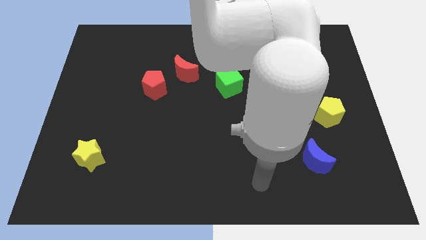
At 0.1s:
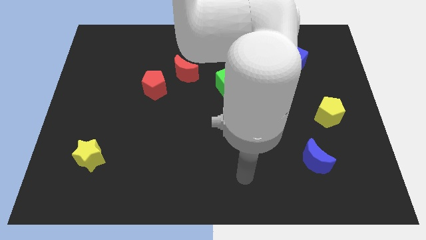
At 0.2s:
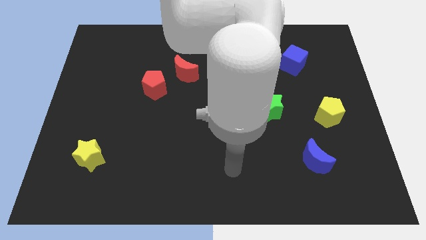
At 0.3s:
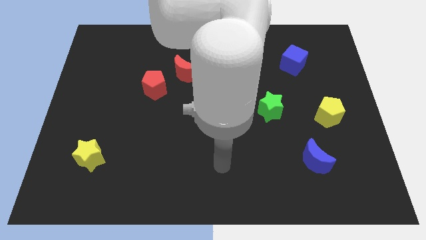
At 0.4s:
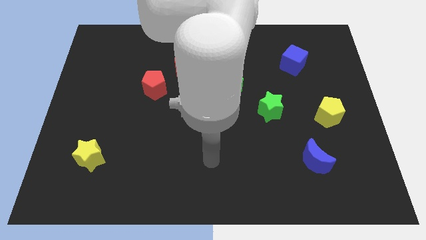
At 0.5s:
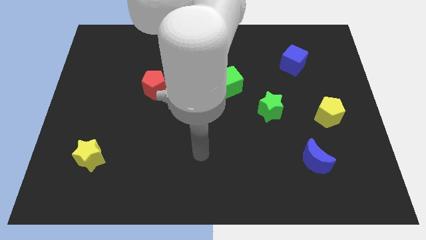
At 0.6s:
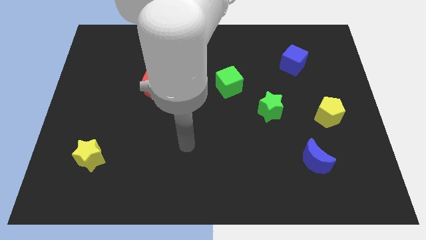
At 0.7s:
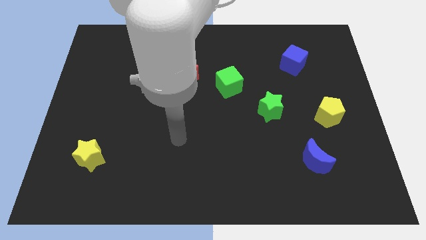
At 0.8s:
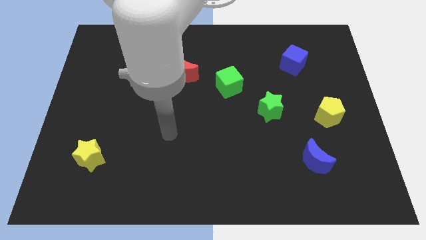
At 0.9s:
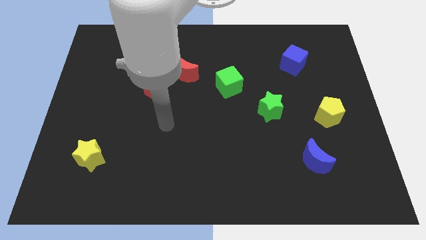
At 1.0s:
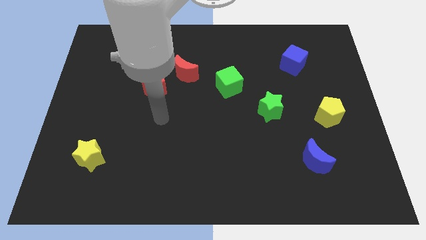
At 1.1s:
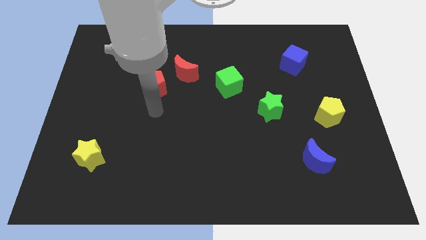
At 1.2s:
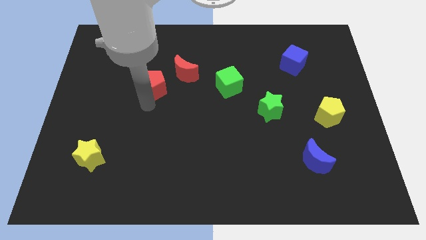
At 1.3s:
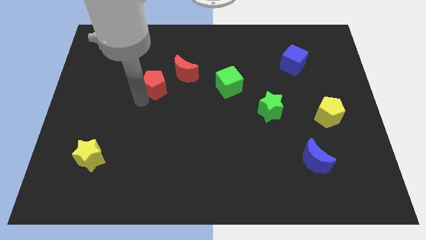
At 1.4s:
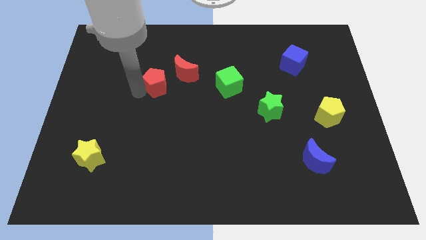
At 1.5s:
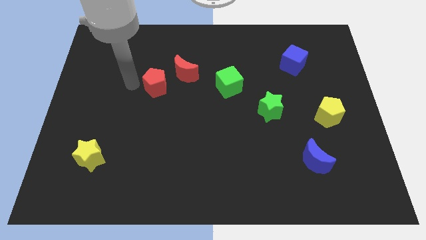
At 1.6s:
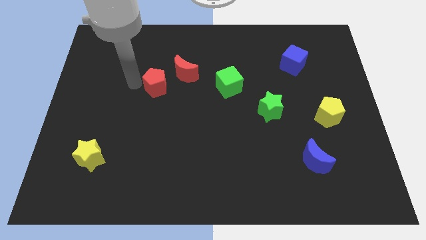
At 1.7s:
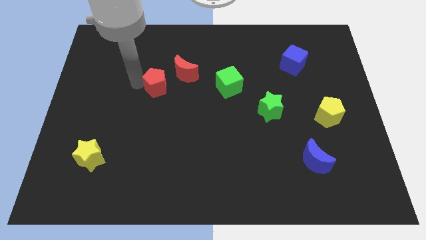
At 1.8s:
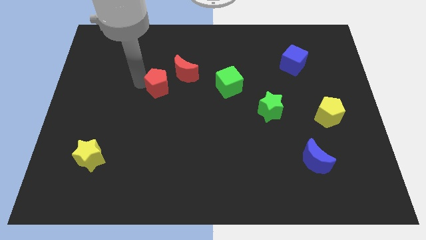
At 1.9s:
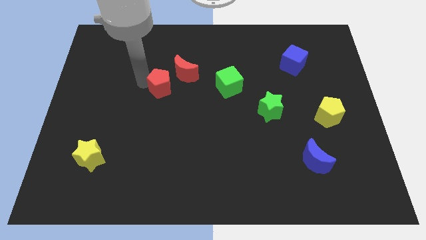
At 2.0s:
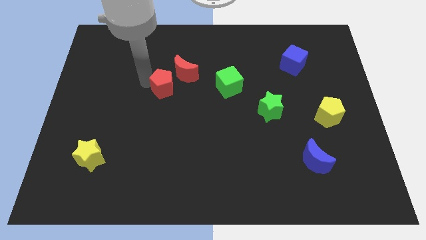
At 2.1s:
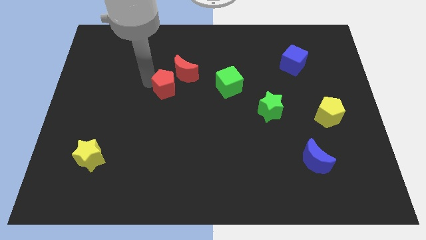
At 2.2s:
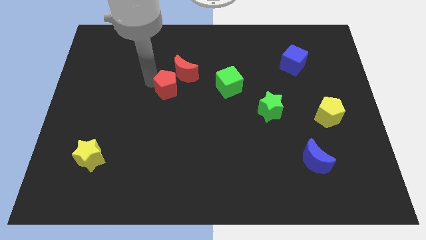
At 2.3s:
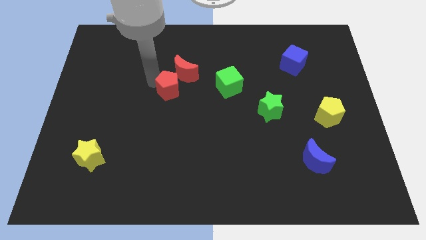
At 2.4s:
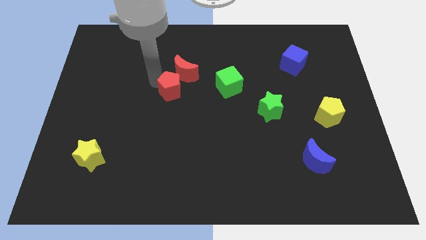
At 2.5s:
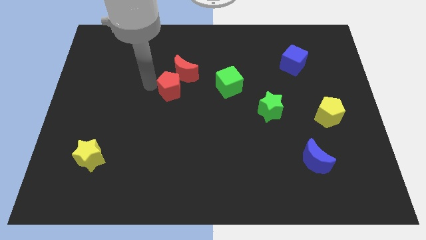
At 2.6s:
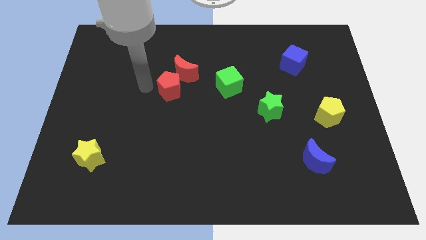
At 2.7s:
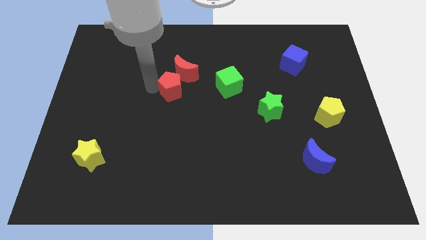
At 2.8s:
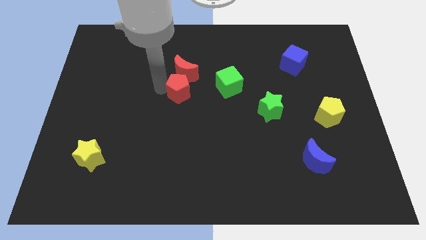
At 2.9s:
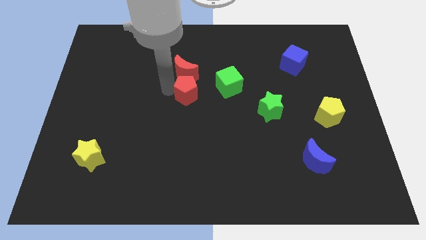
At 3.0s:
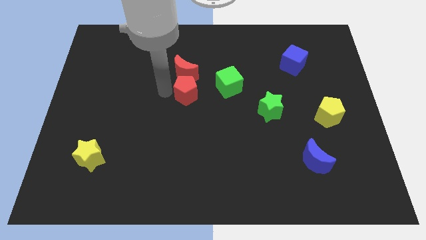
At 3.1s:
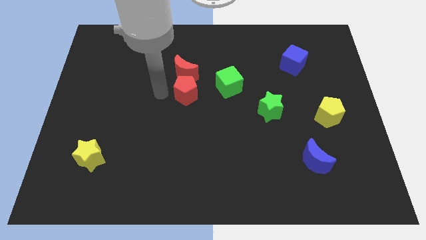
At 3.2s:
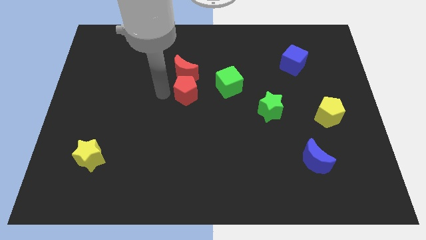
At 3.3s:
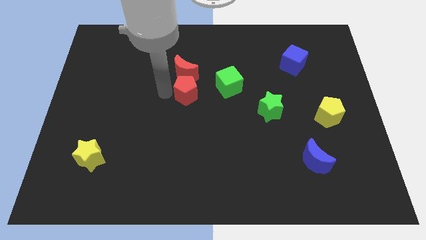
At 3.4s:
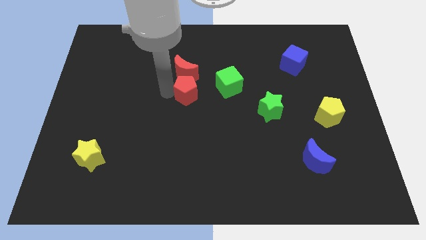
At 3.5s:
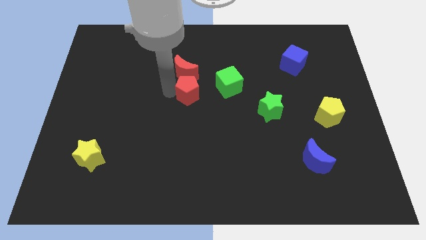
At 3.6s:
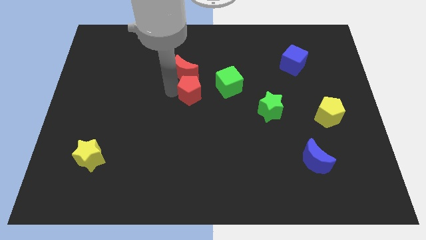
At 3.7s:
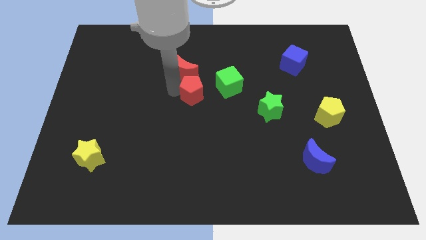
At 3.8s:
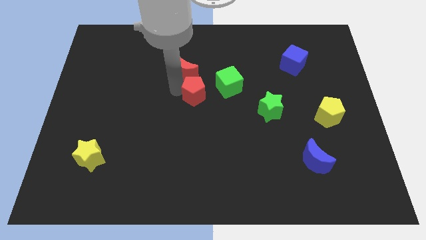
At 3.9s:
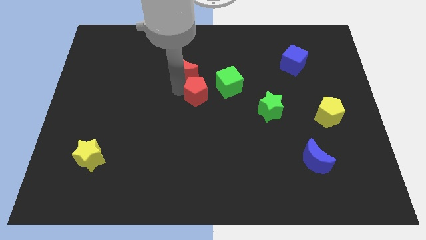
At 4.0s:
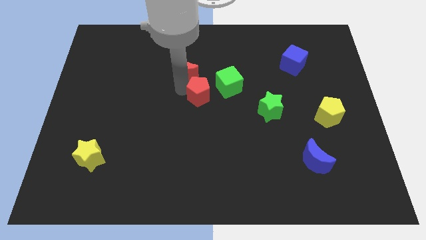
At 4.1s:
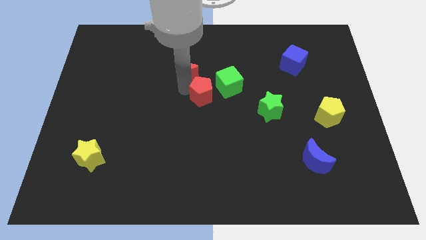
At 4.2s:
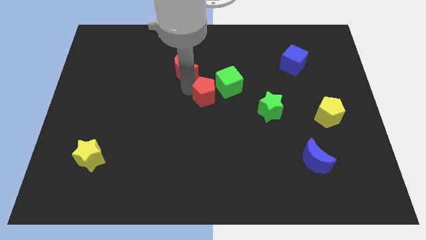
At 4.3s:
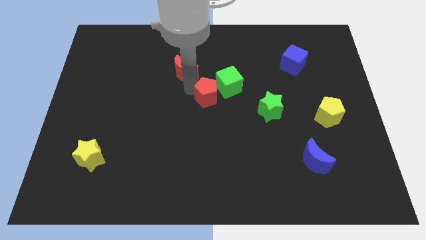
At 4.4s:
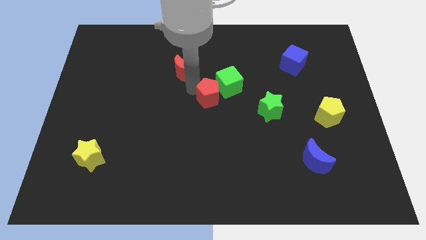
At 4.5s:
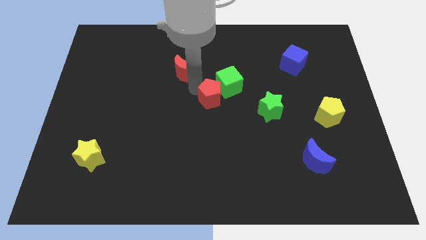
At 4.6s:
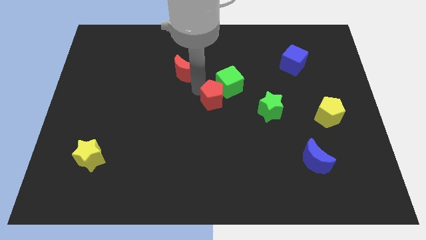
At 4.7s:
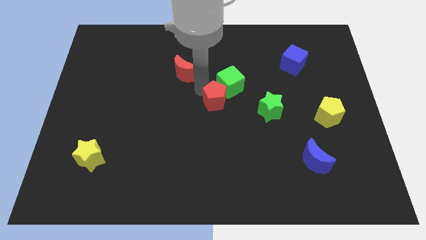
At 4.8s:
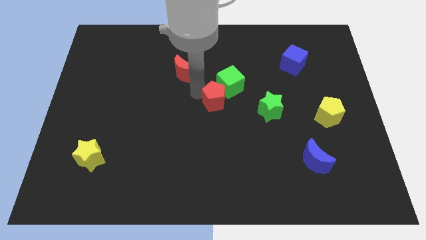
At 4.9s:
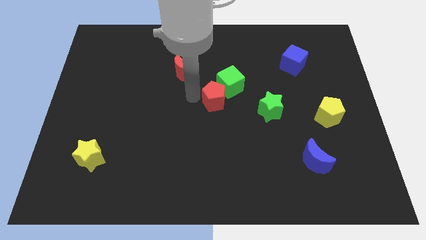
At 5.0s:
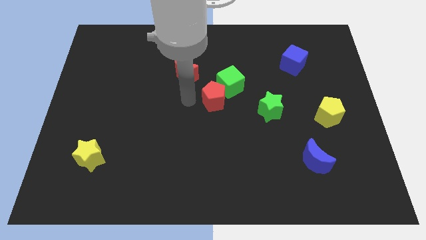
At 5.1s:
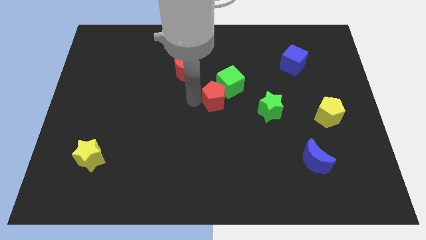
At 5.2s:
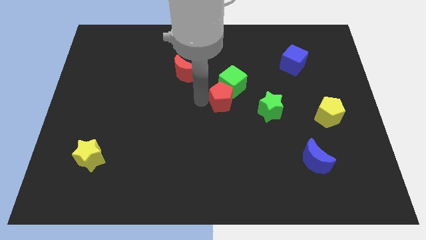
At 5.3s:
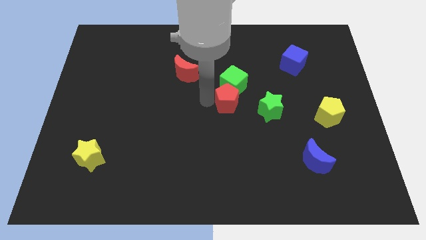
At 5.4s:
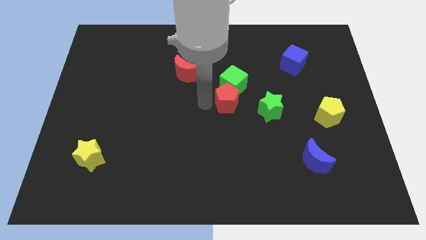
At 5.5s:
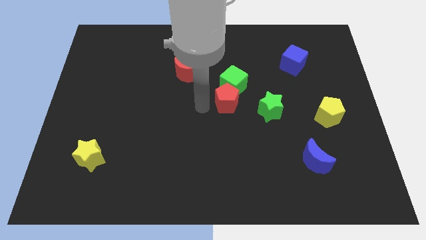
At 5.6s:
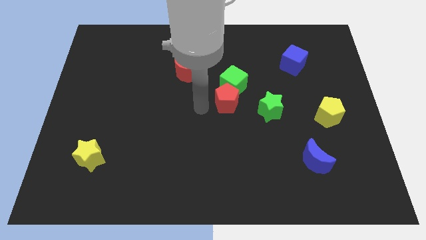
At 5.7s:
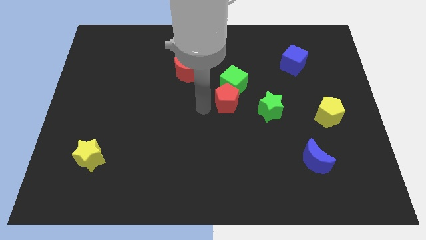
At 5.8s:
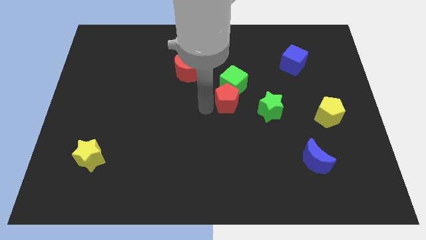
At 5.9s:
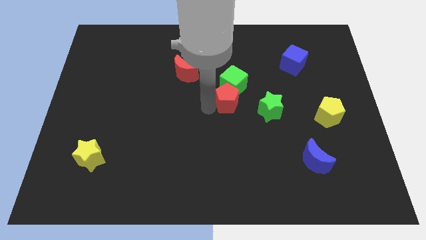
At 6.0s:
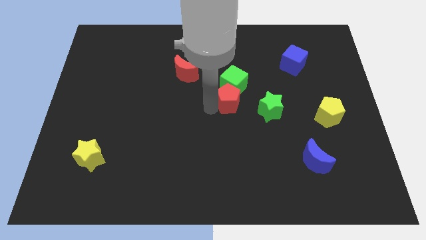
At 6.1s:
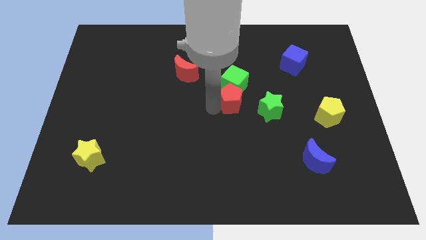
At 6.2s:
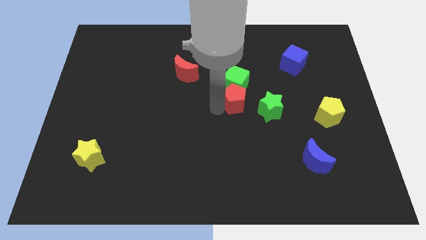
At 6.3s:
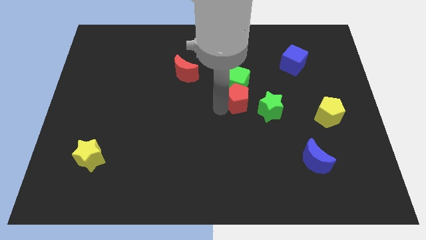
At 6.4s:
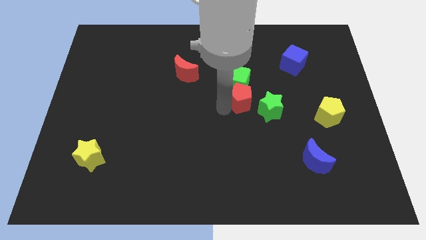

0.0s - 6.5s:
push the red pentagon right

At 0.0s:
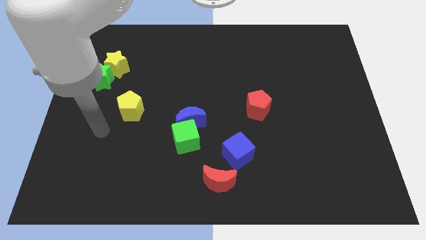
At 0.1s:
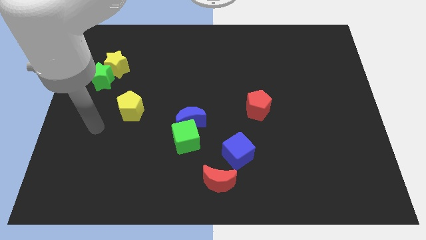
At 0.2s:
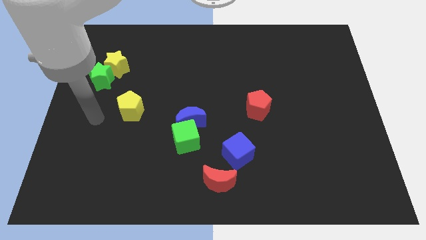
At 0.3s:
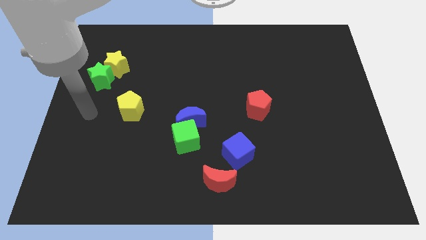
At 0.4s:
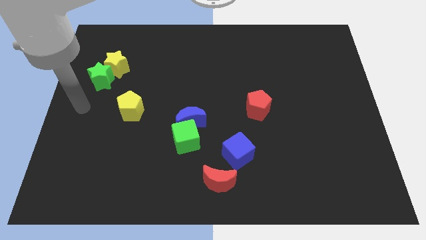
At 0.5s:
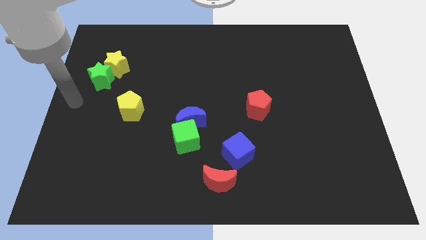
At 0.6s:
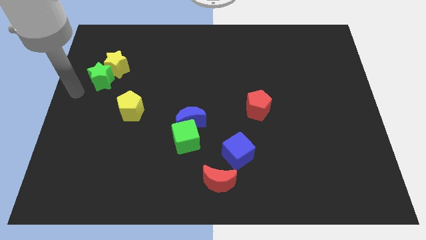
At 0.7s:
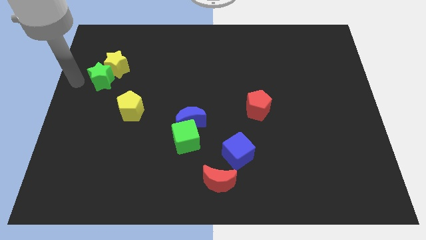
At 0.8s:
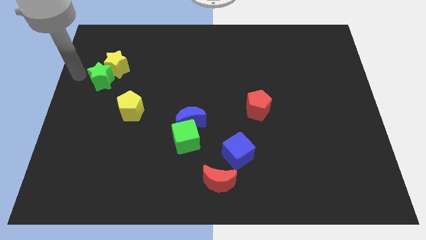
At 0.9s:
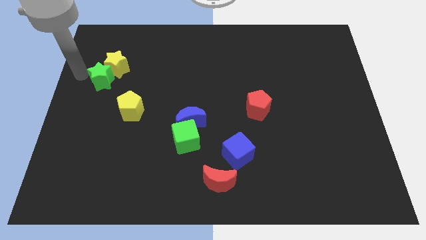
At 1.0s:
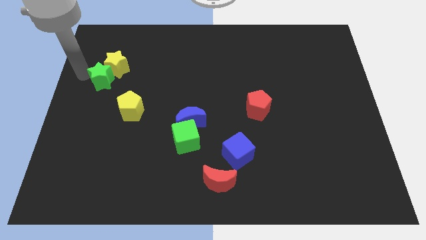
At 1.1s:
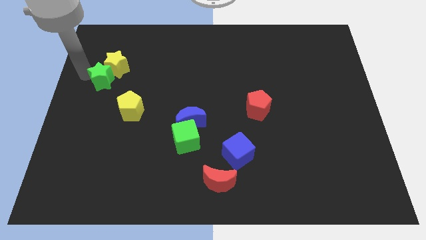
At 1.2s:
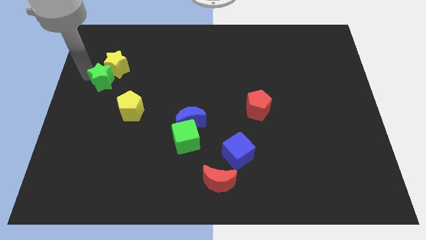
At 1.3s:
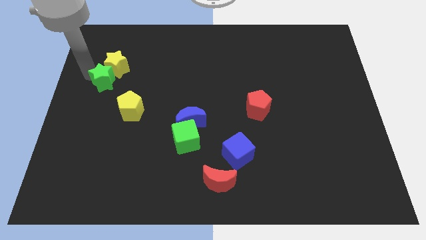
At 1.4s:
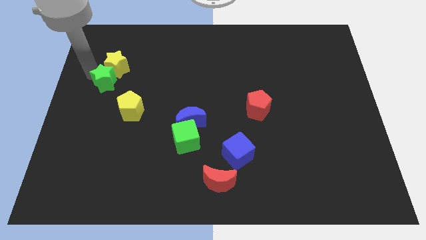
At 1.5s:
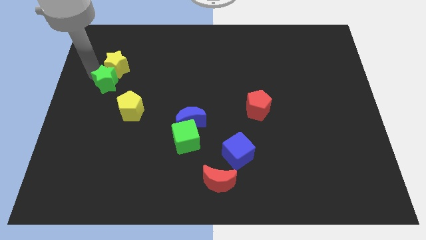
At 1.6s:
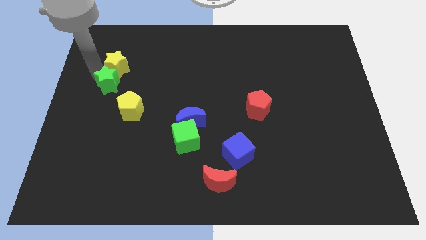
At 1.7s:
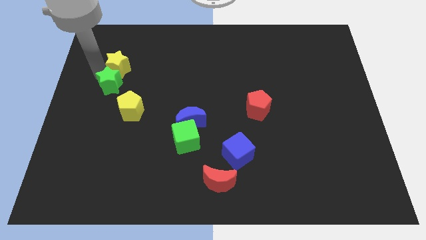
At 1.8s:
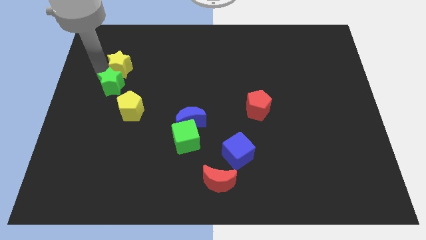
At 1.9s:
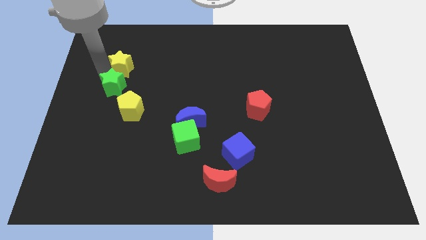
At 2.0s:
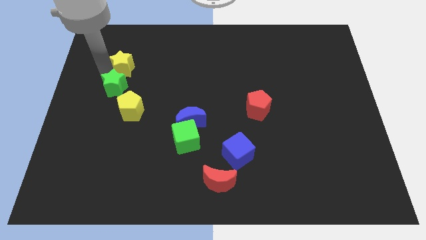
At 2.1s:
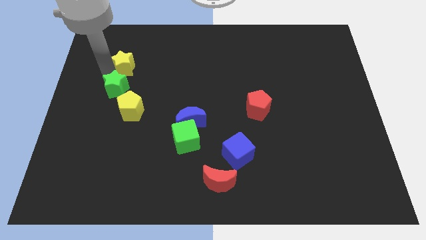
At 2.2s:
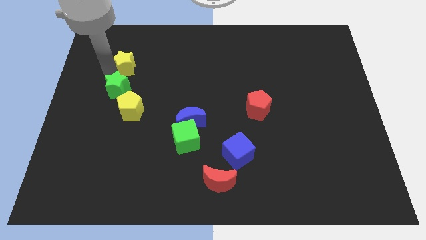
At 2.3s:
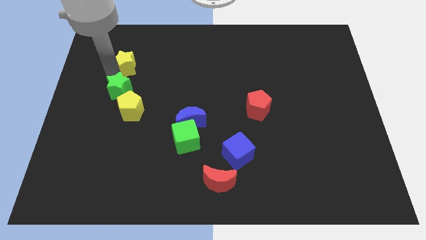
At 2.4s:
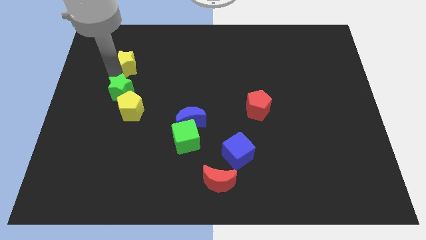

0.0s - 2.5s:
move the green star somewhat downwards and right
